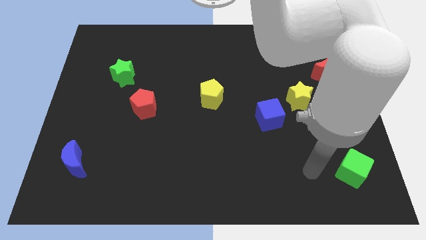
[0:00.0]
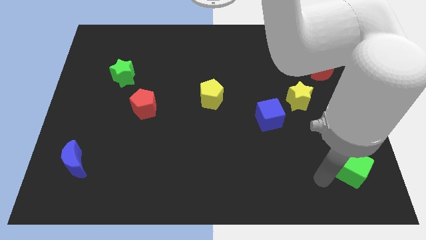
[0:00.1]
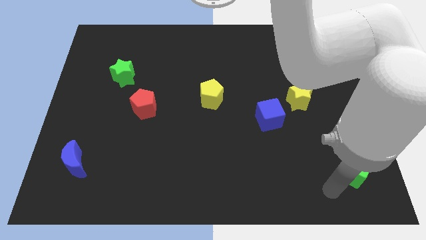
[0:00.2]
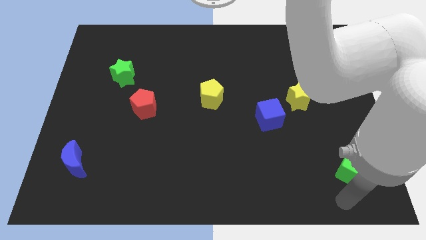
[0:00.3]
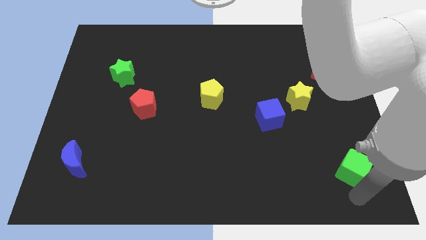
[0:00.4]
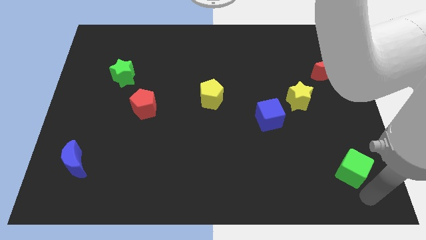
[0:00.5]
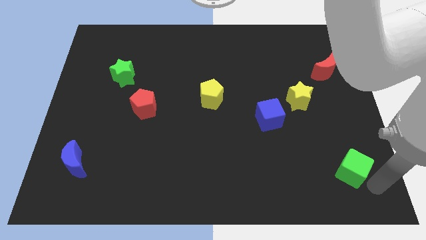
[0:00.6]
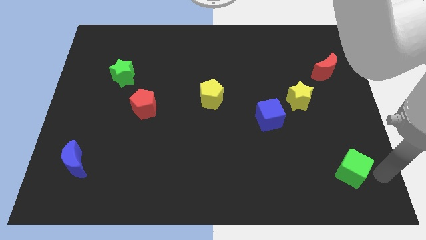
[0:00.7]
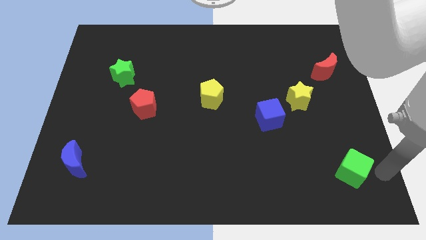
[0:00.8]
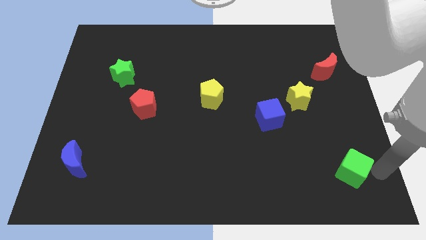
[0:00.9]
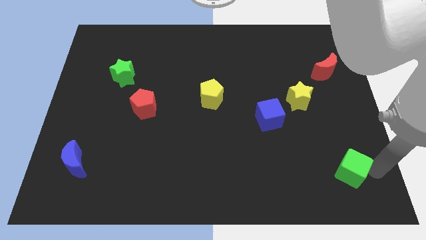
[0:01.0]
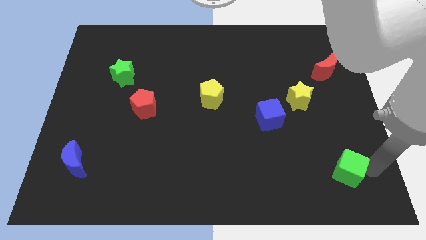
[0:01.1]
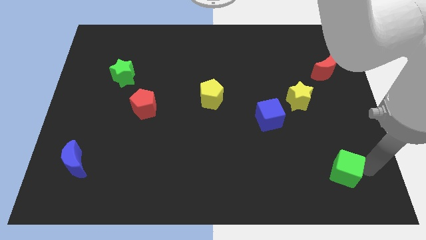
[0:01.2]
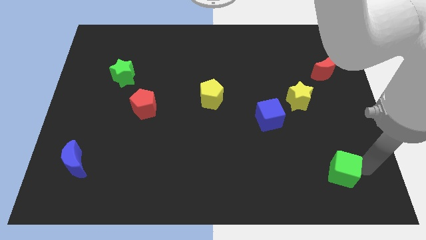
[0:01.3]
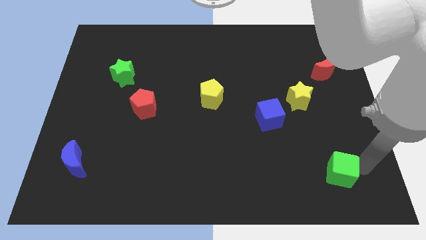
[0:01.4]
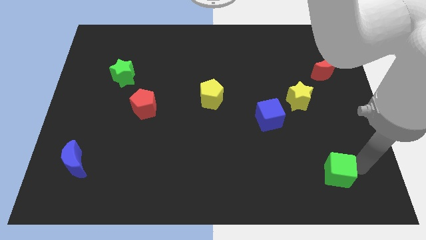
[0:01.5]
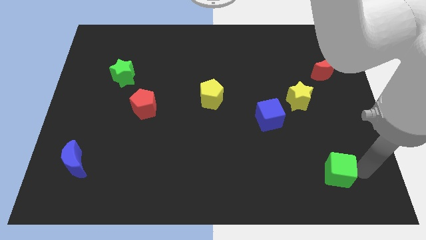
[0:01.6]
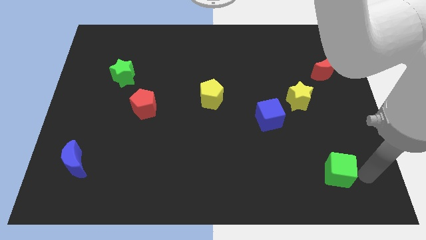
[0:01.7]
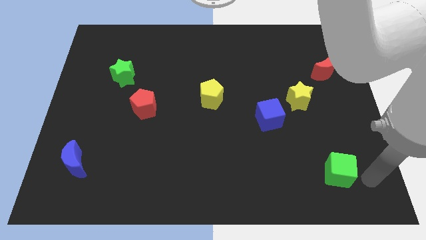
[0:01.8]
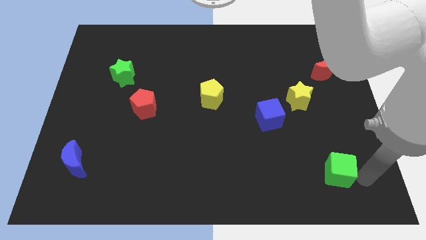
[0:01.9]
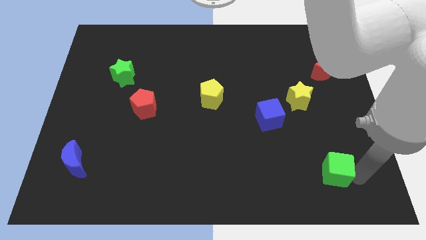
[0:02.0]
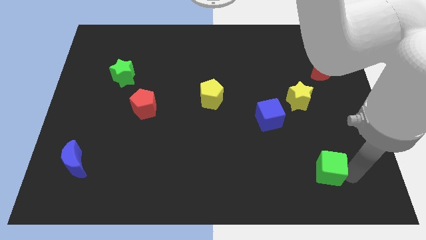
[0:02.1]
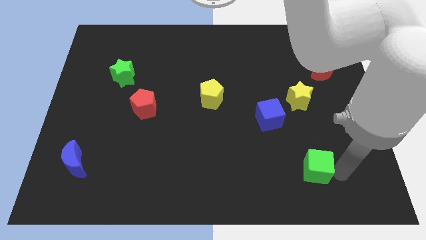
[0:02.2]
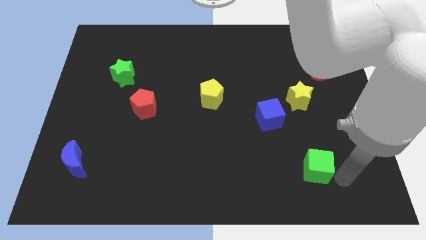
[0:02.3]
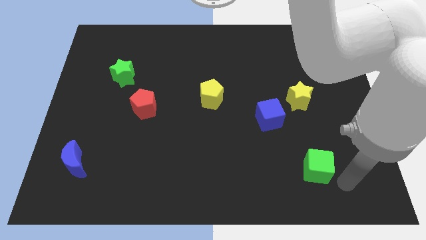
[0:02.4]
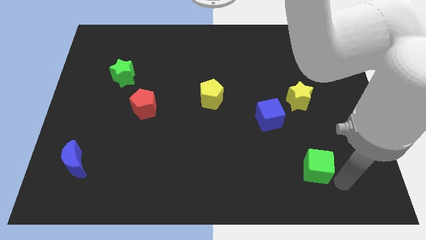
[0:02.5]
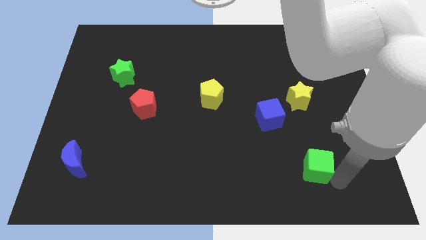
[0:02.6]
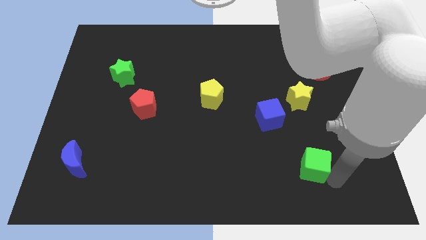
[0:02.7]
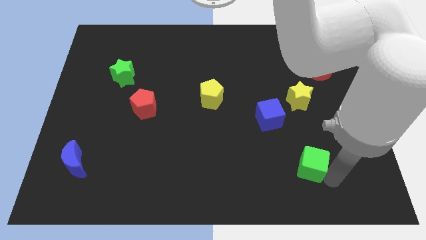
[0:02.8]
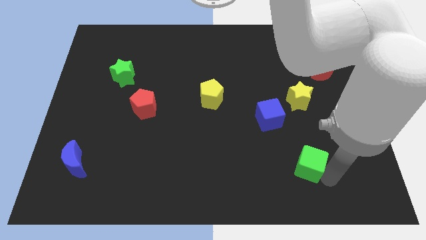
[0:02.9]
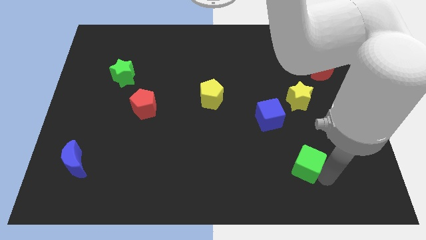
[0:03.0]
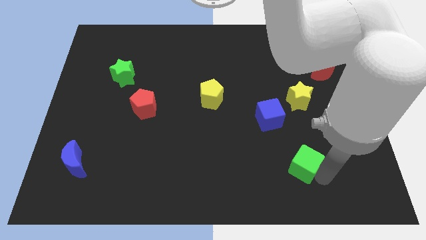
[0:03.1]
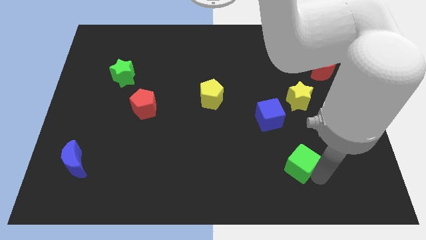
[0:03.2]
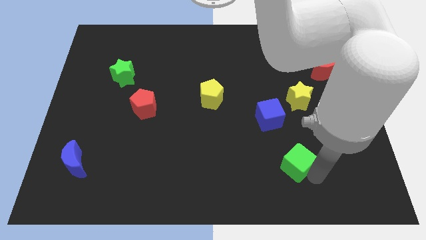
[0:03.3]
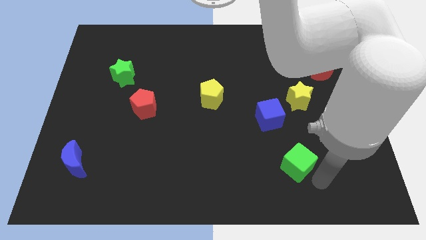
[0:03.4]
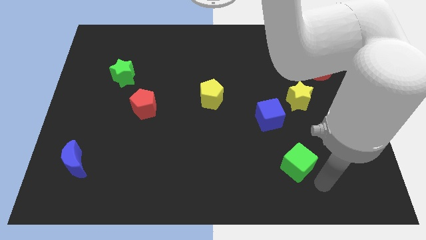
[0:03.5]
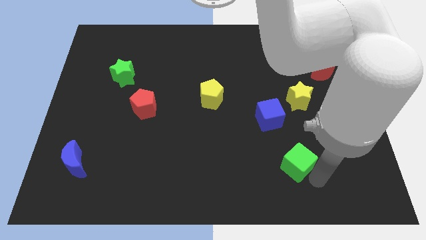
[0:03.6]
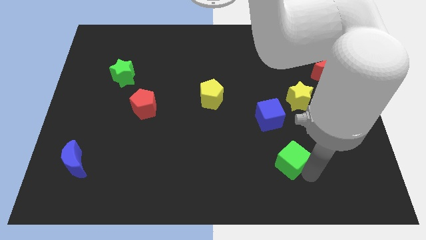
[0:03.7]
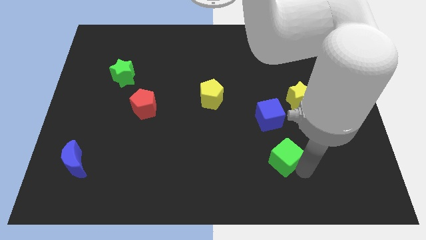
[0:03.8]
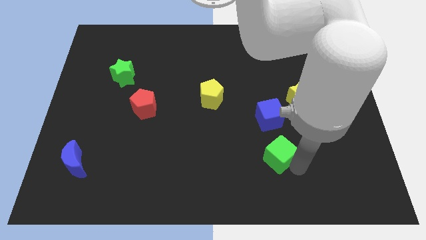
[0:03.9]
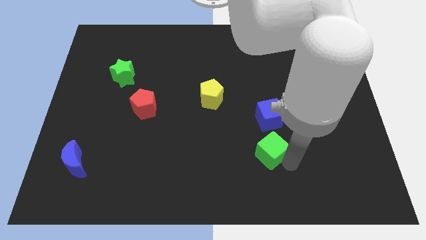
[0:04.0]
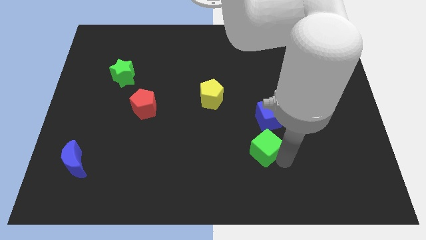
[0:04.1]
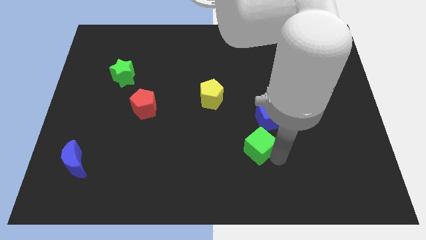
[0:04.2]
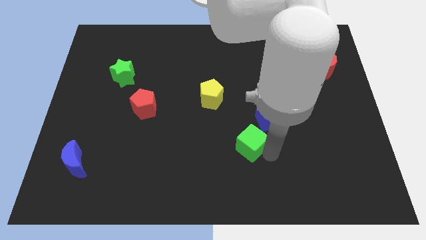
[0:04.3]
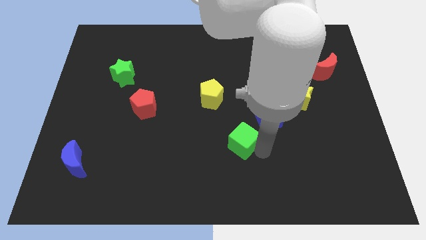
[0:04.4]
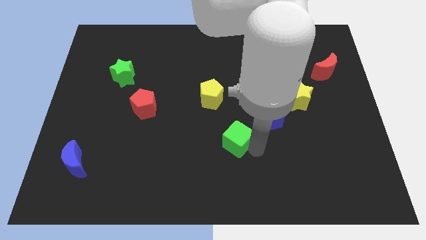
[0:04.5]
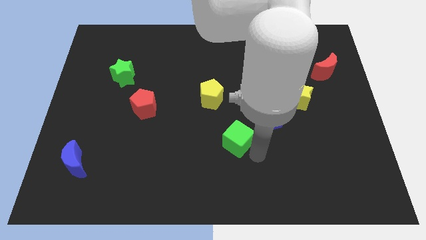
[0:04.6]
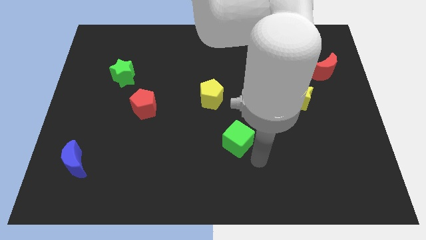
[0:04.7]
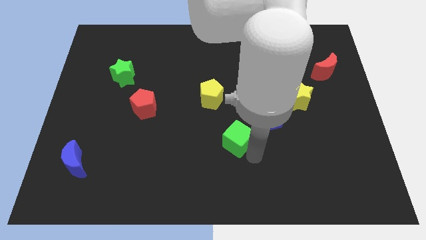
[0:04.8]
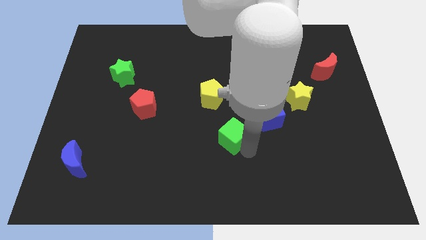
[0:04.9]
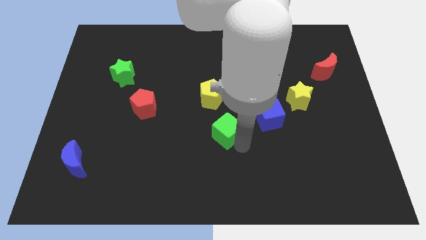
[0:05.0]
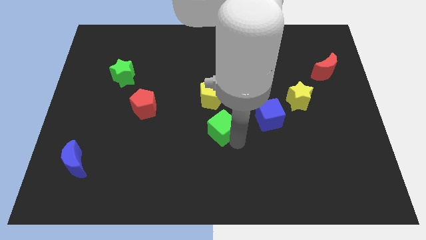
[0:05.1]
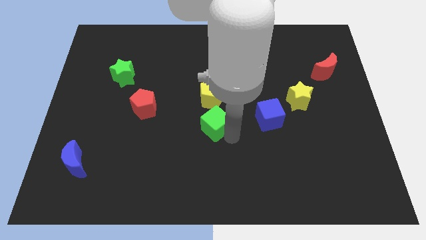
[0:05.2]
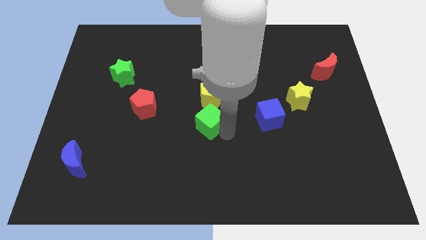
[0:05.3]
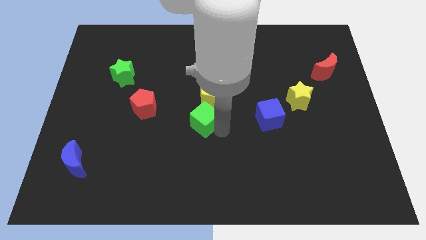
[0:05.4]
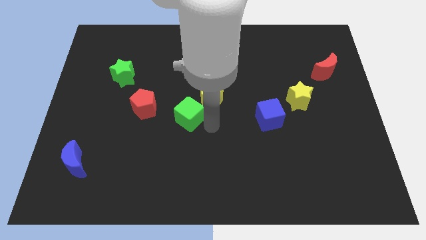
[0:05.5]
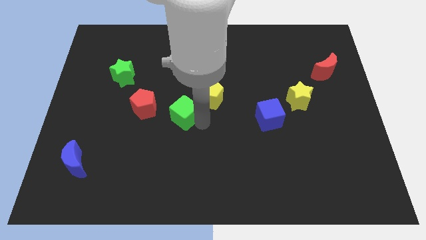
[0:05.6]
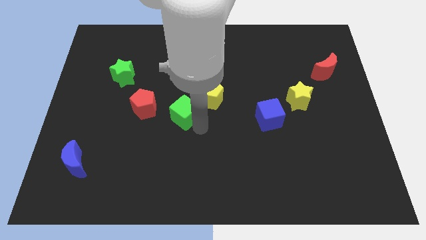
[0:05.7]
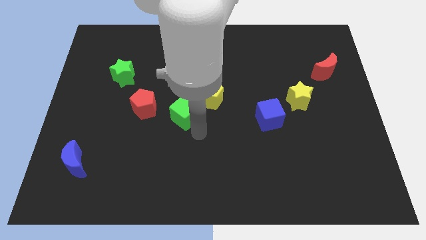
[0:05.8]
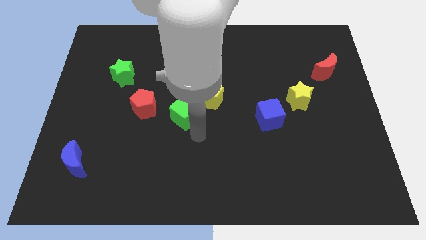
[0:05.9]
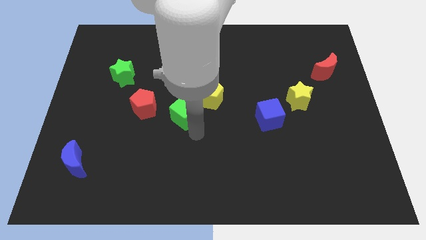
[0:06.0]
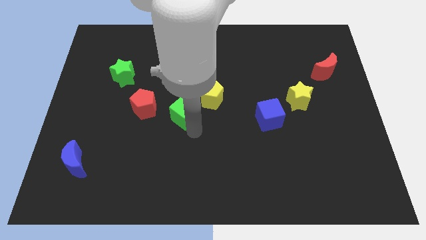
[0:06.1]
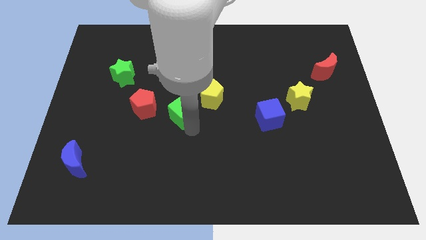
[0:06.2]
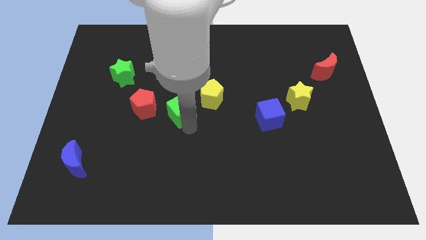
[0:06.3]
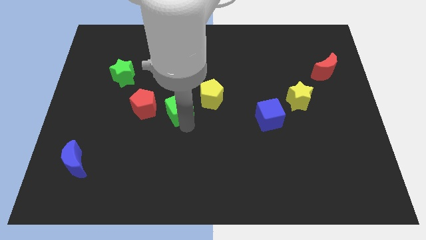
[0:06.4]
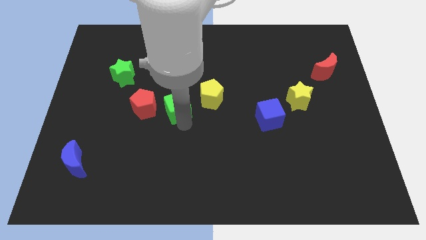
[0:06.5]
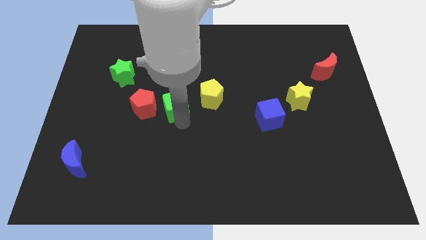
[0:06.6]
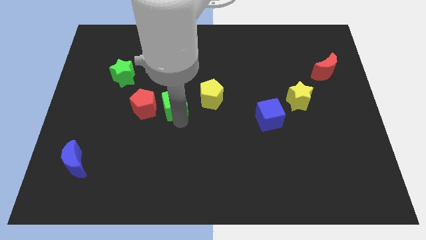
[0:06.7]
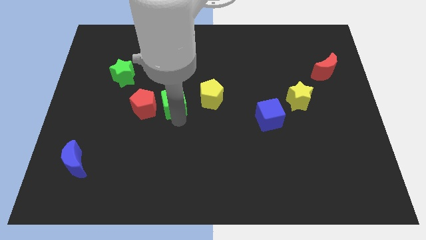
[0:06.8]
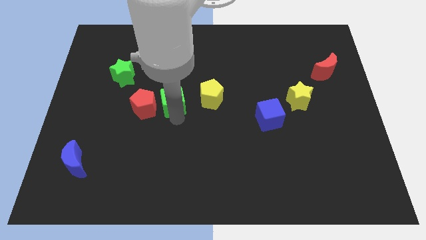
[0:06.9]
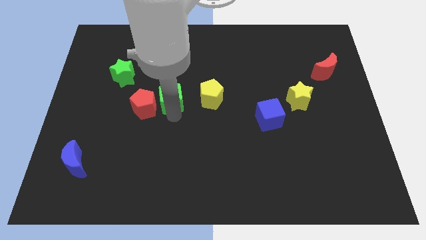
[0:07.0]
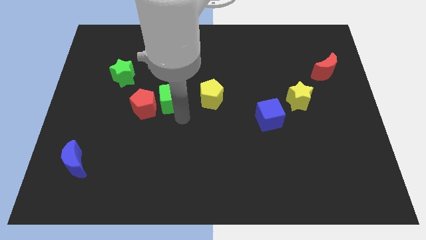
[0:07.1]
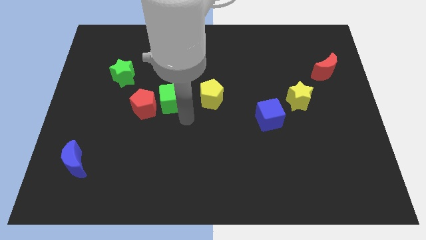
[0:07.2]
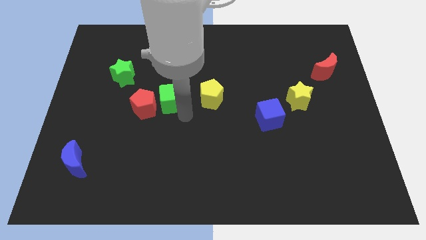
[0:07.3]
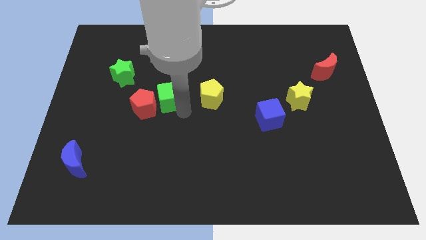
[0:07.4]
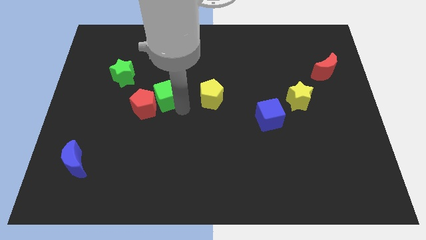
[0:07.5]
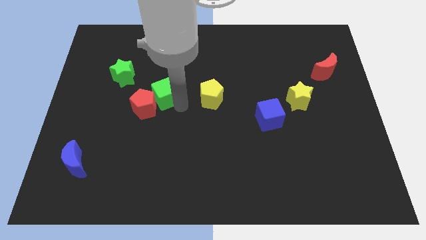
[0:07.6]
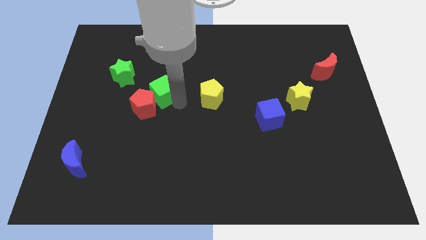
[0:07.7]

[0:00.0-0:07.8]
put the green cube above the red pentagon
